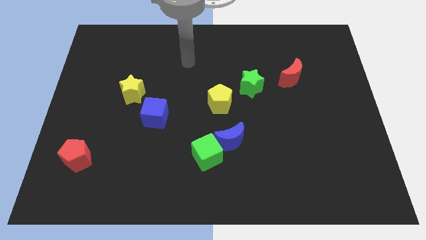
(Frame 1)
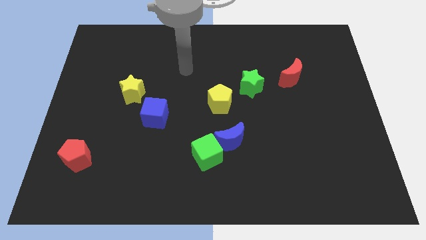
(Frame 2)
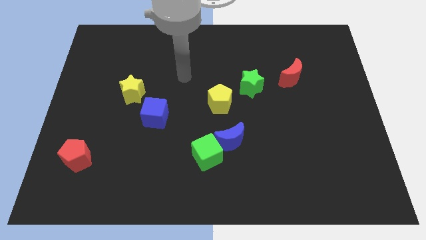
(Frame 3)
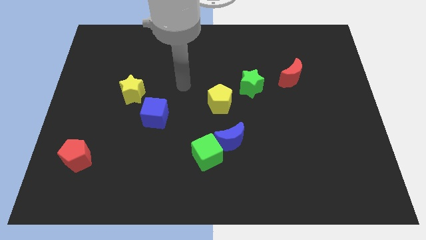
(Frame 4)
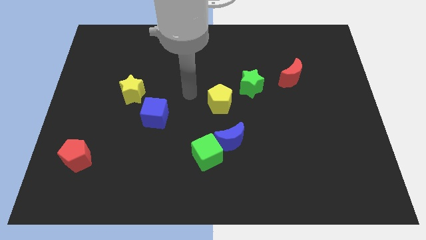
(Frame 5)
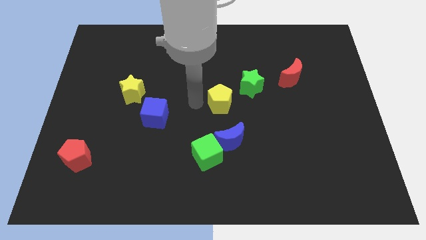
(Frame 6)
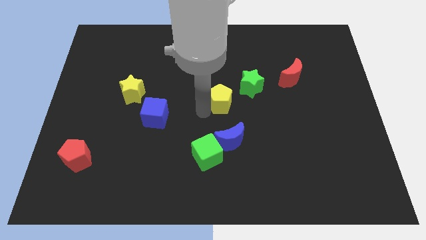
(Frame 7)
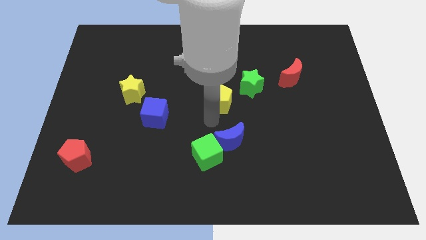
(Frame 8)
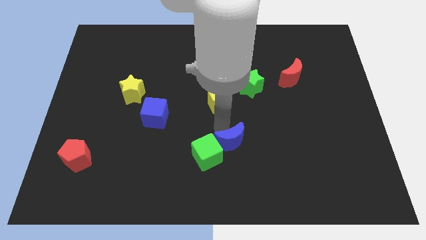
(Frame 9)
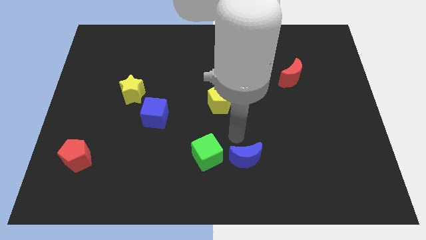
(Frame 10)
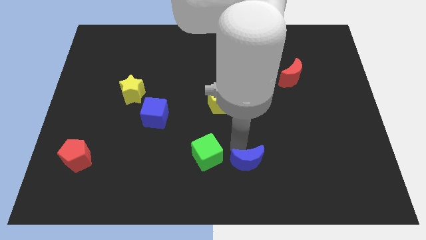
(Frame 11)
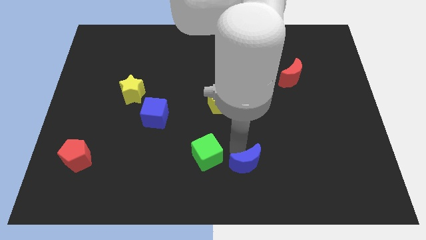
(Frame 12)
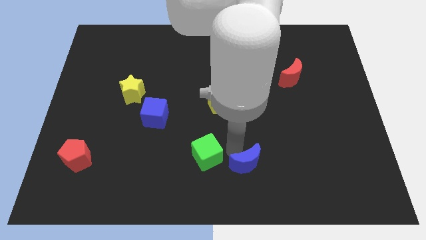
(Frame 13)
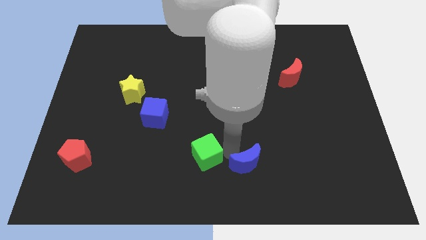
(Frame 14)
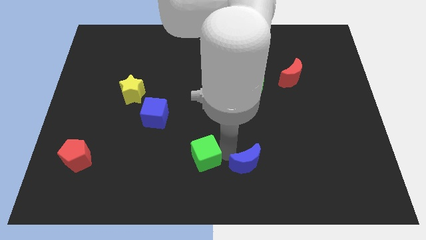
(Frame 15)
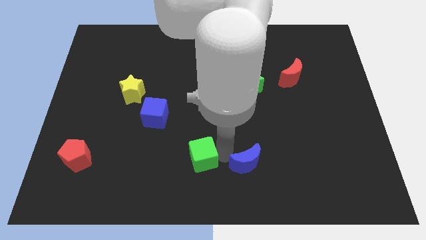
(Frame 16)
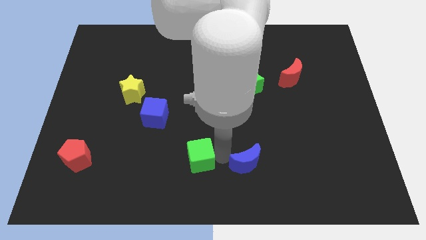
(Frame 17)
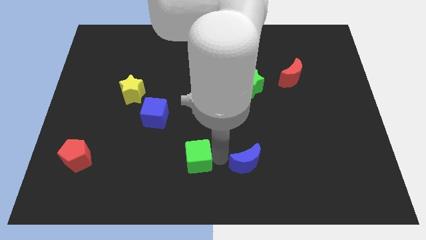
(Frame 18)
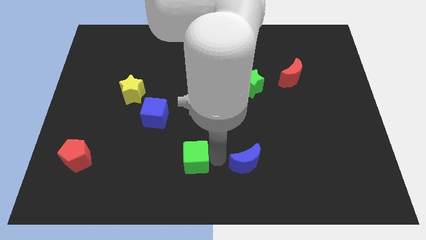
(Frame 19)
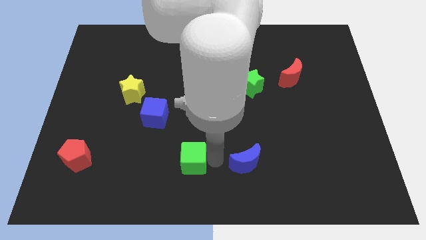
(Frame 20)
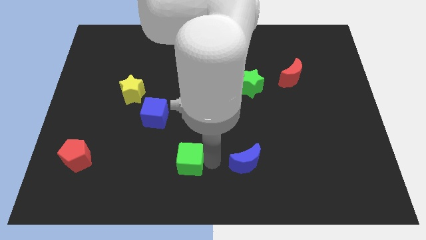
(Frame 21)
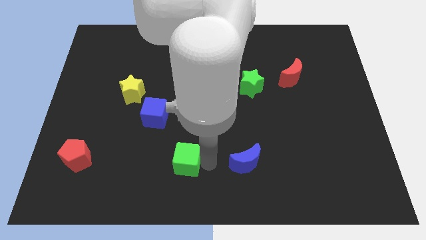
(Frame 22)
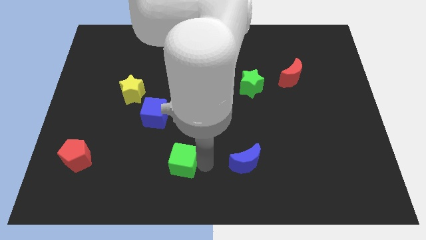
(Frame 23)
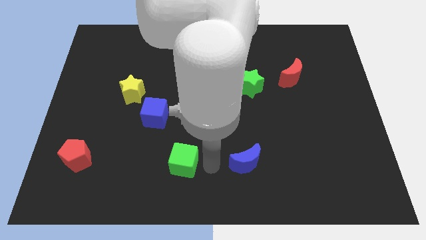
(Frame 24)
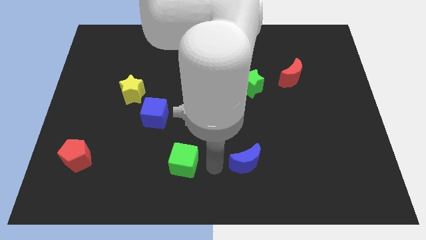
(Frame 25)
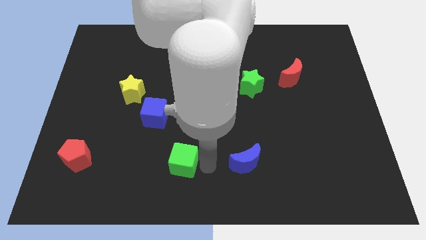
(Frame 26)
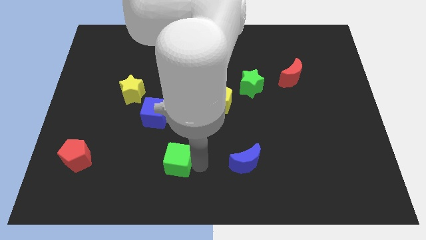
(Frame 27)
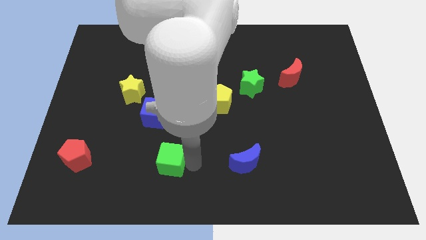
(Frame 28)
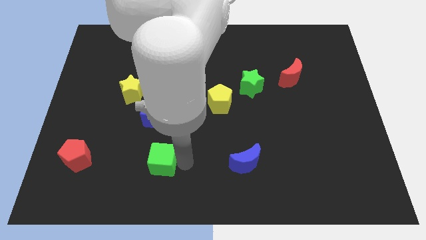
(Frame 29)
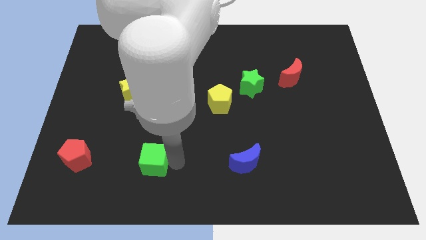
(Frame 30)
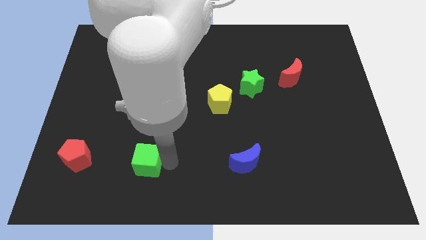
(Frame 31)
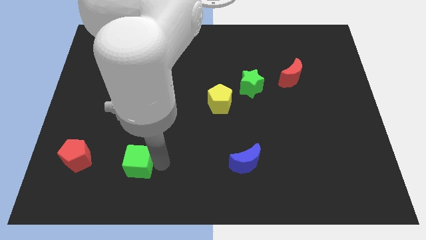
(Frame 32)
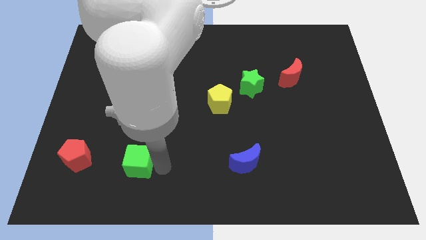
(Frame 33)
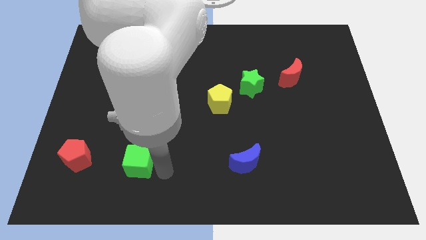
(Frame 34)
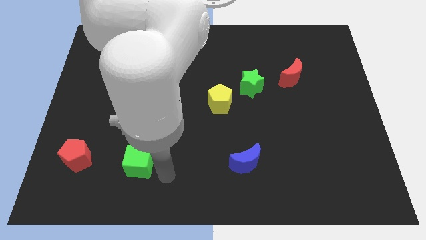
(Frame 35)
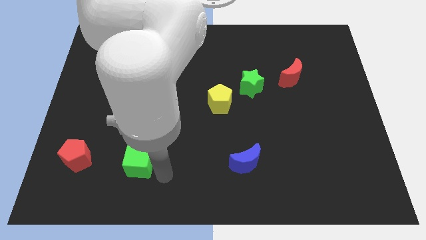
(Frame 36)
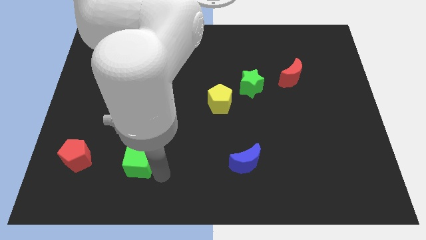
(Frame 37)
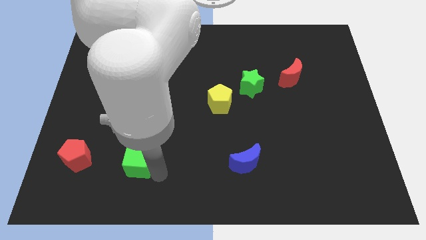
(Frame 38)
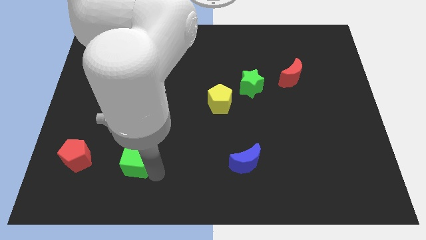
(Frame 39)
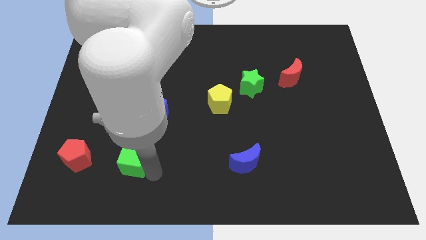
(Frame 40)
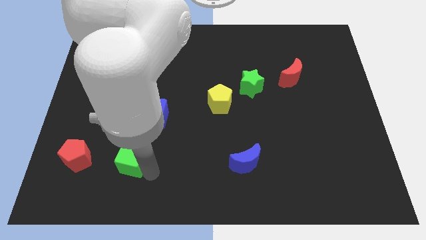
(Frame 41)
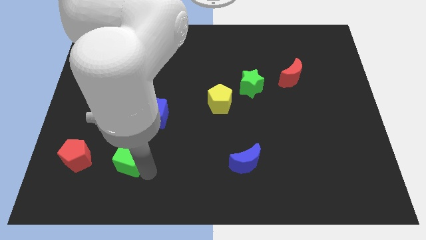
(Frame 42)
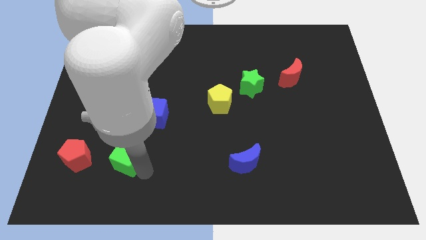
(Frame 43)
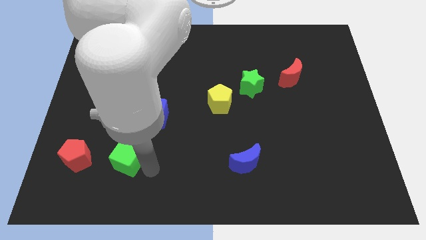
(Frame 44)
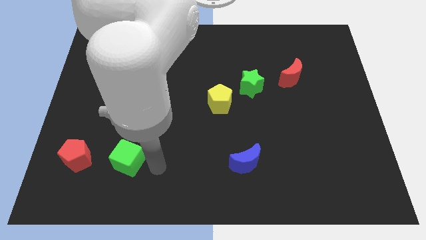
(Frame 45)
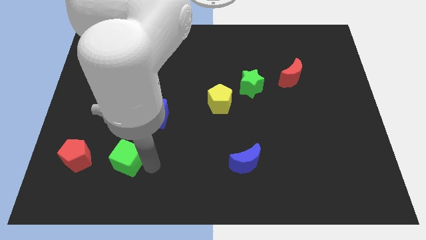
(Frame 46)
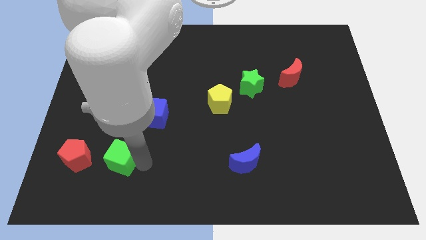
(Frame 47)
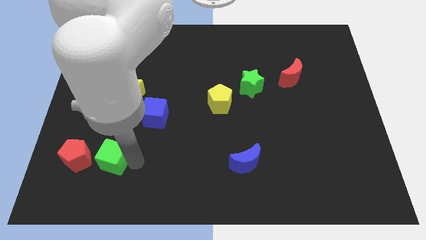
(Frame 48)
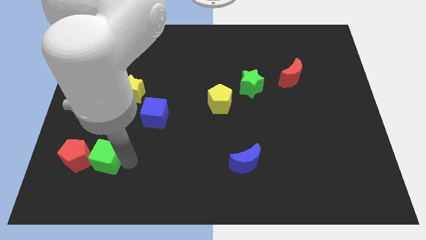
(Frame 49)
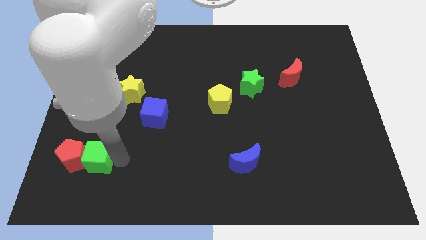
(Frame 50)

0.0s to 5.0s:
push the green cube towards the red pentagon

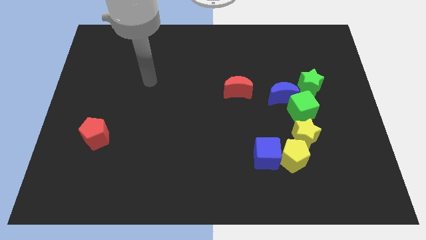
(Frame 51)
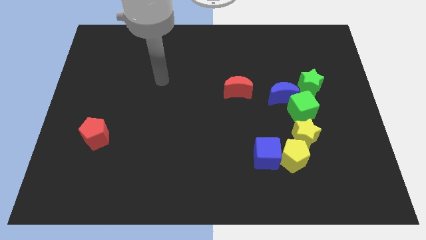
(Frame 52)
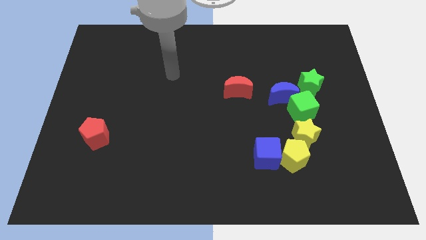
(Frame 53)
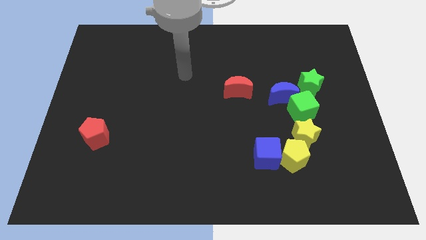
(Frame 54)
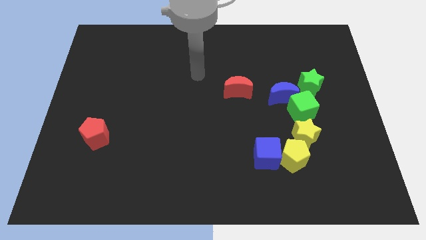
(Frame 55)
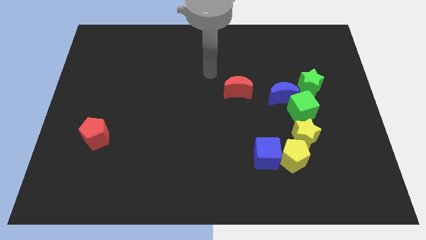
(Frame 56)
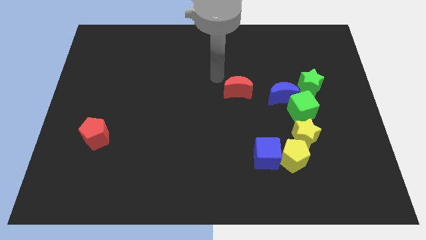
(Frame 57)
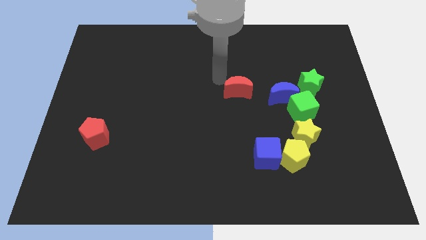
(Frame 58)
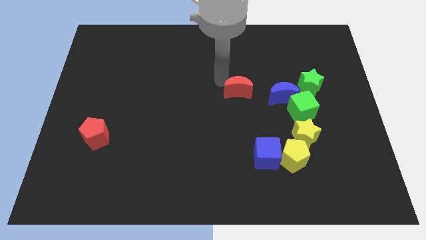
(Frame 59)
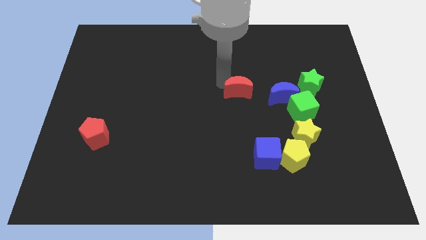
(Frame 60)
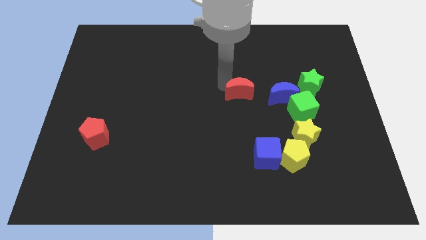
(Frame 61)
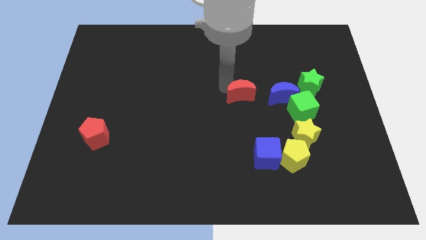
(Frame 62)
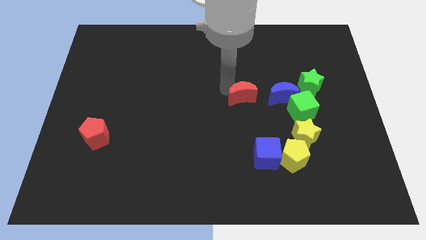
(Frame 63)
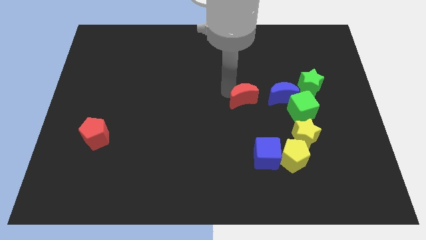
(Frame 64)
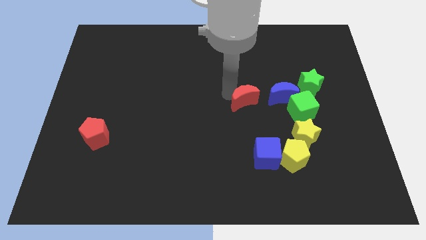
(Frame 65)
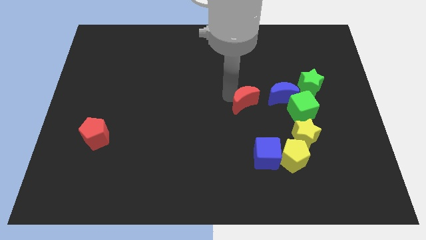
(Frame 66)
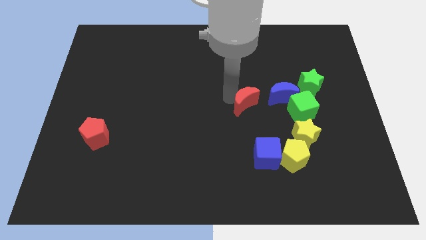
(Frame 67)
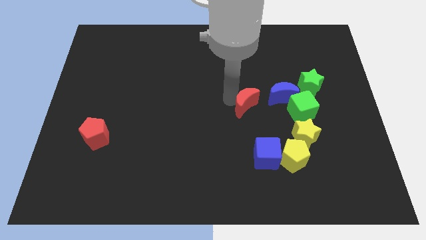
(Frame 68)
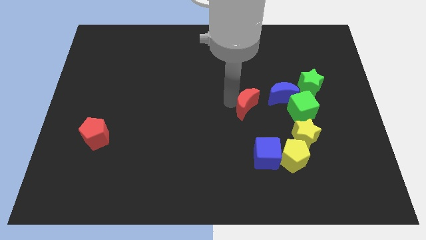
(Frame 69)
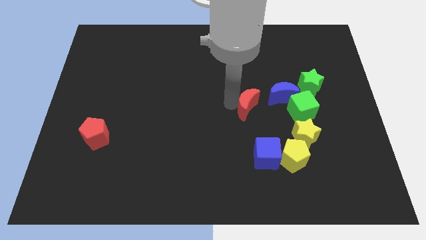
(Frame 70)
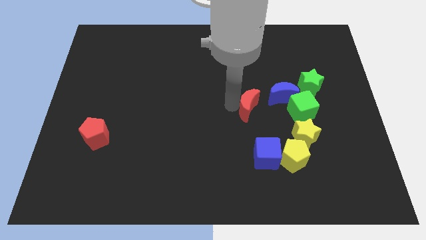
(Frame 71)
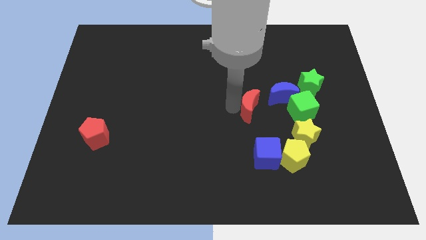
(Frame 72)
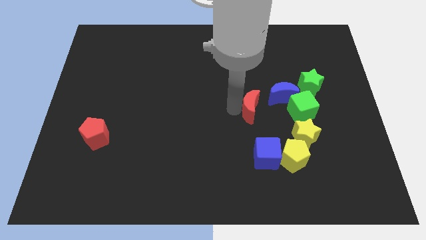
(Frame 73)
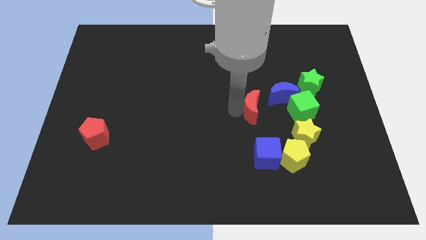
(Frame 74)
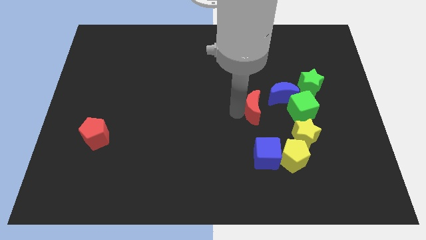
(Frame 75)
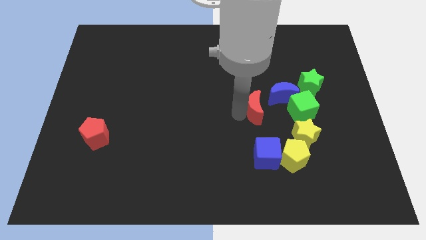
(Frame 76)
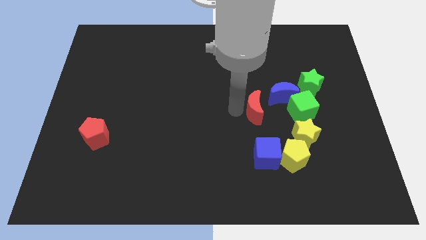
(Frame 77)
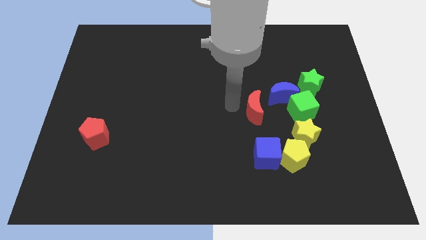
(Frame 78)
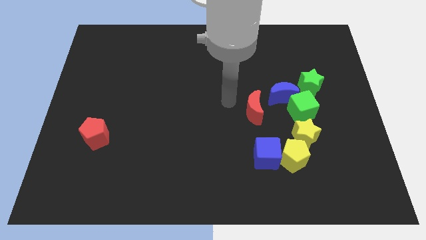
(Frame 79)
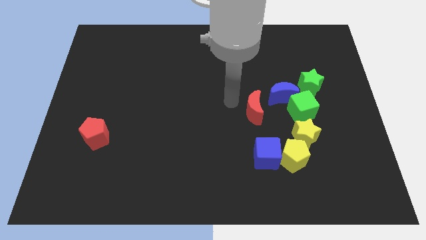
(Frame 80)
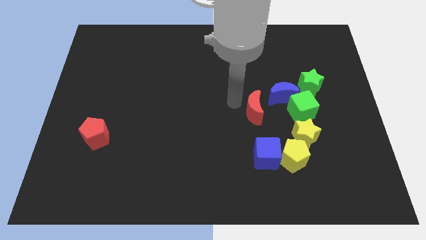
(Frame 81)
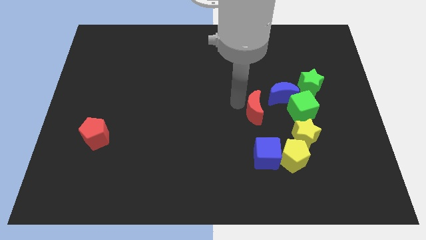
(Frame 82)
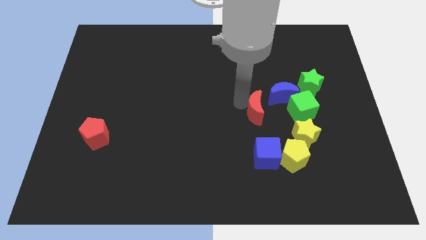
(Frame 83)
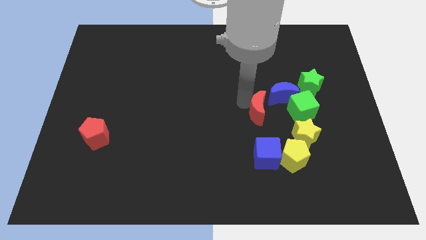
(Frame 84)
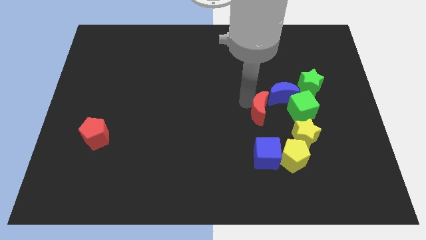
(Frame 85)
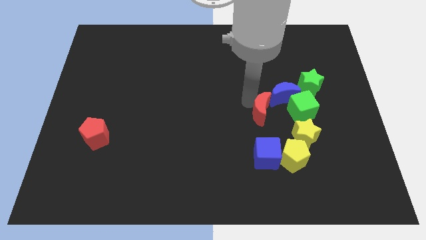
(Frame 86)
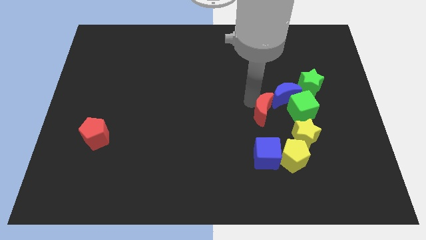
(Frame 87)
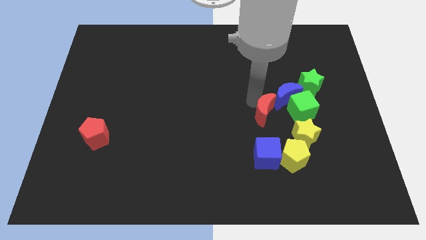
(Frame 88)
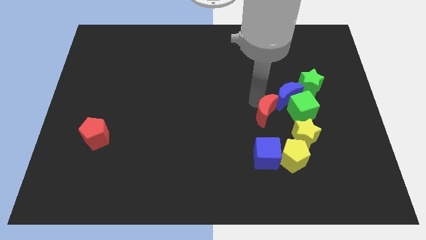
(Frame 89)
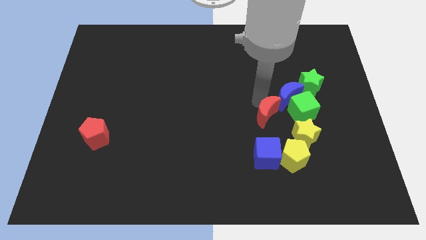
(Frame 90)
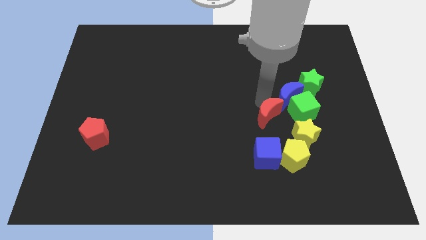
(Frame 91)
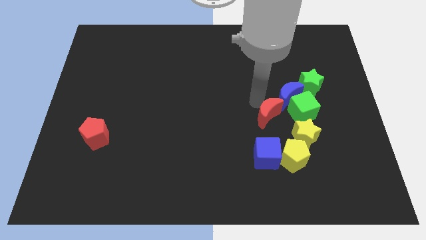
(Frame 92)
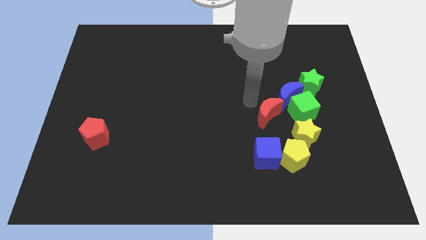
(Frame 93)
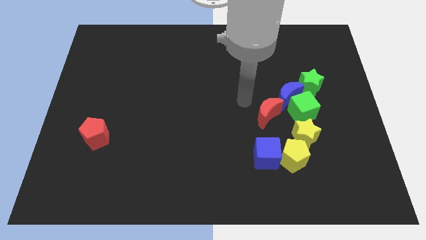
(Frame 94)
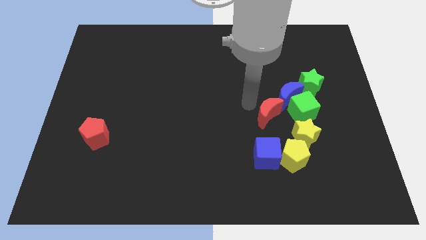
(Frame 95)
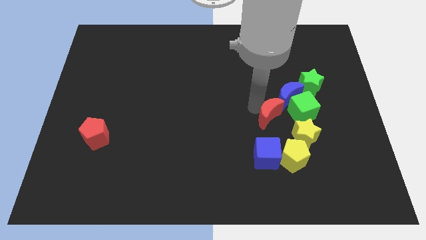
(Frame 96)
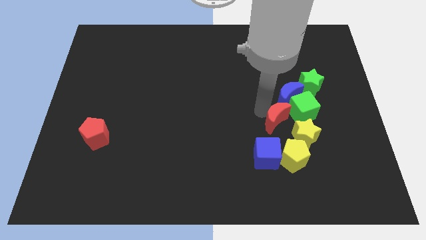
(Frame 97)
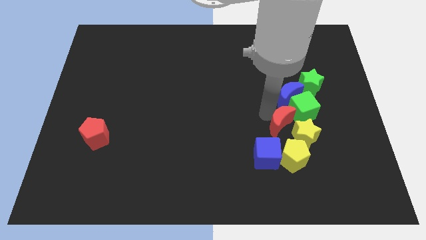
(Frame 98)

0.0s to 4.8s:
move the red moon towards the yellow star
